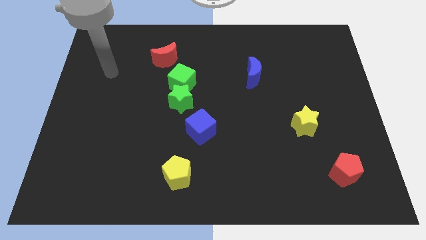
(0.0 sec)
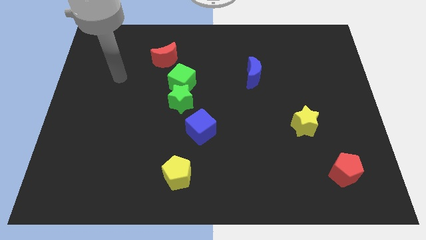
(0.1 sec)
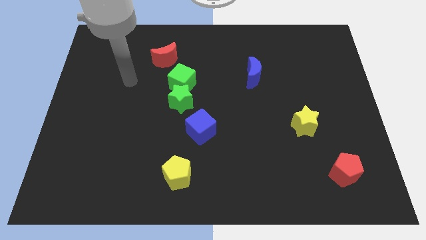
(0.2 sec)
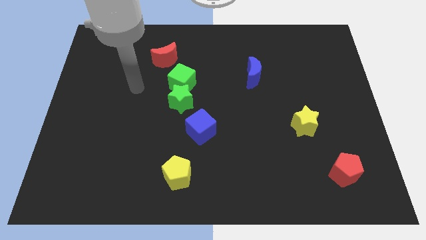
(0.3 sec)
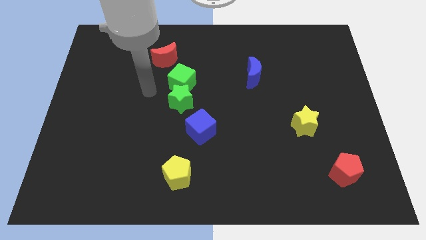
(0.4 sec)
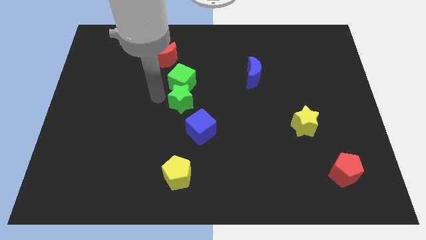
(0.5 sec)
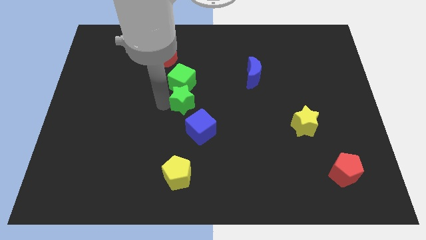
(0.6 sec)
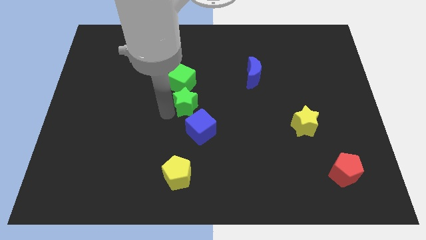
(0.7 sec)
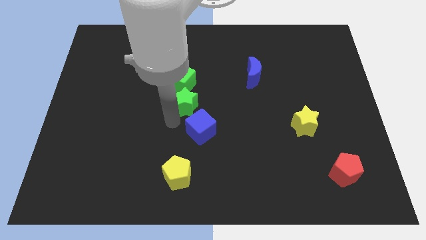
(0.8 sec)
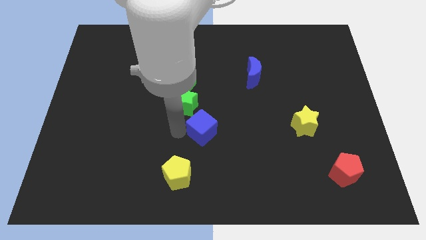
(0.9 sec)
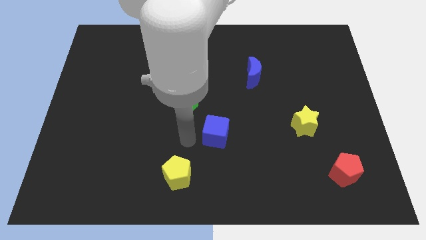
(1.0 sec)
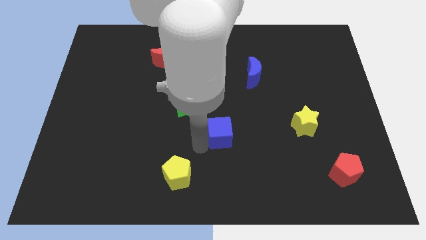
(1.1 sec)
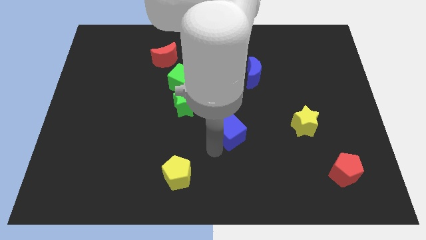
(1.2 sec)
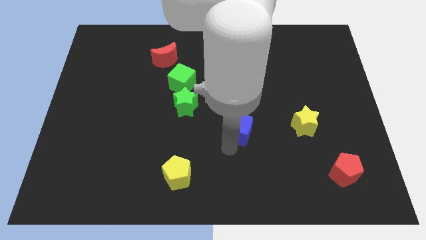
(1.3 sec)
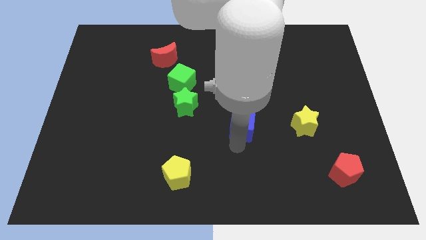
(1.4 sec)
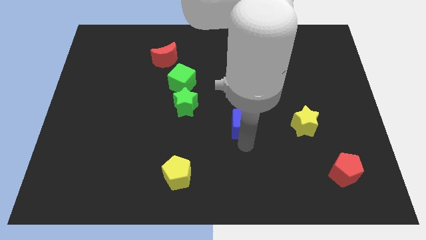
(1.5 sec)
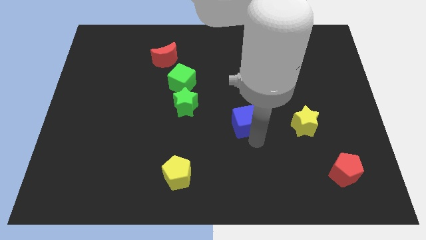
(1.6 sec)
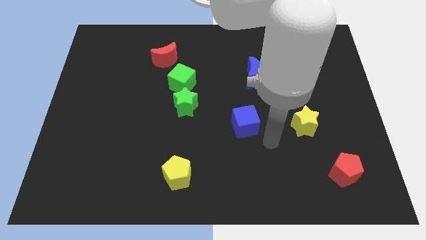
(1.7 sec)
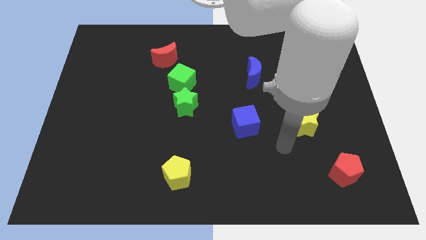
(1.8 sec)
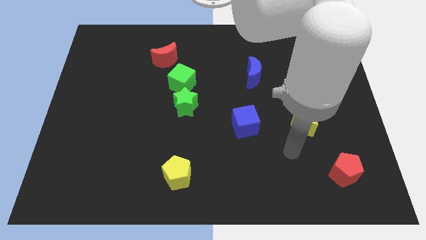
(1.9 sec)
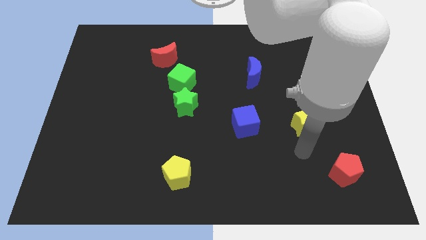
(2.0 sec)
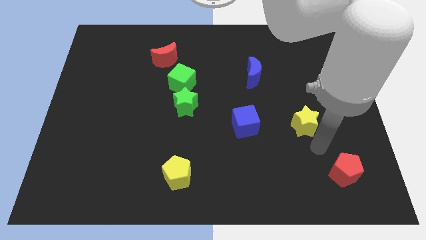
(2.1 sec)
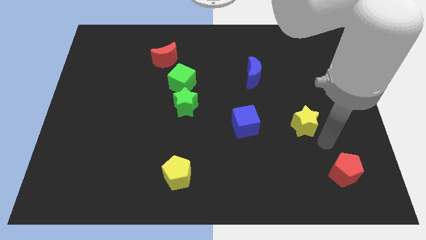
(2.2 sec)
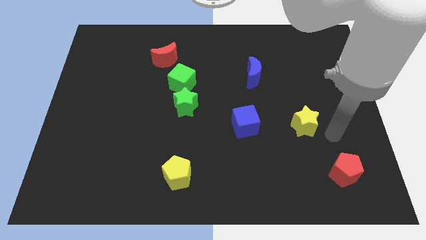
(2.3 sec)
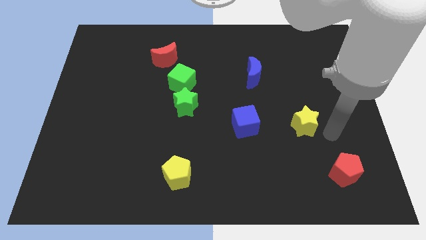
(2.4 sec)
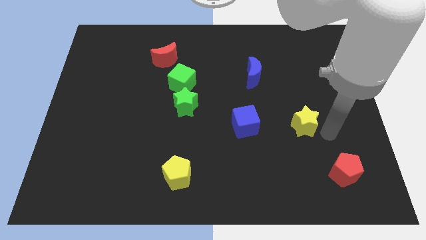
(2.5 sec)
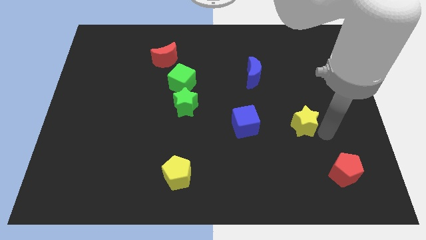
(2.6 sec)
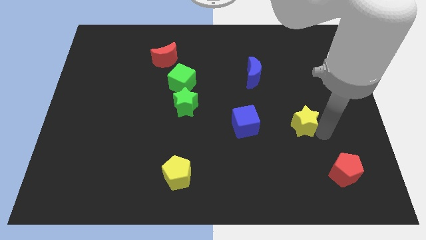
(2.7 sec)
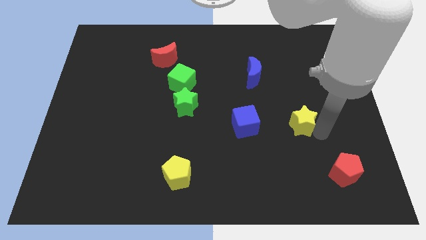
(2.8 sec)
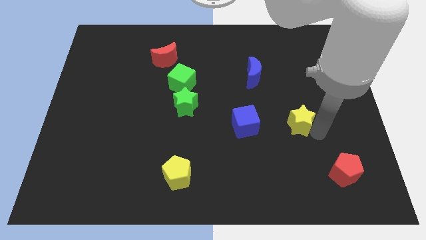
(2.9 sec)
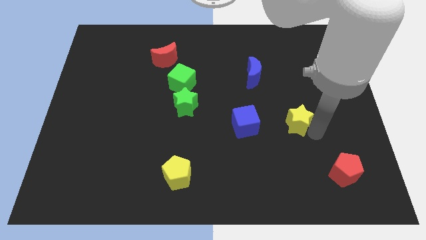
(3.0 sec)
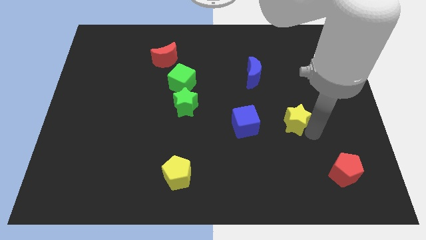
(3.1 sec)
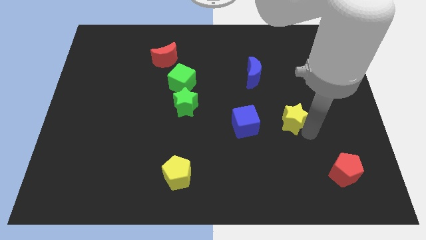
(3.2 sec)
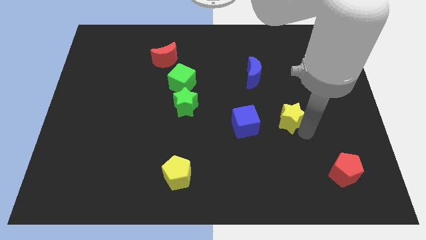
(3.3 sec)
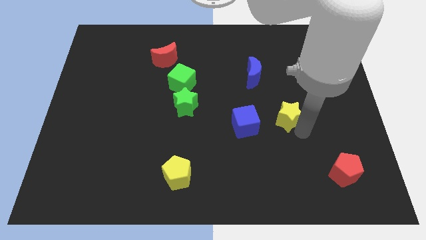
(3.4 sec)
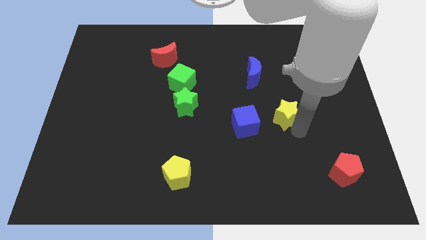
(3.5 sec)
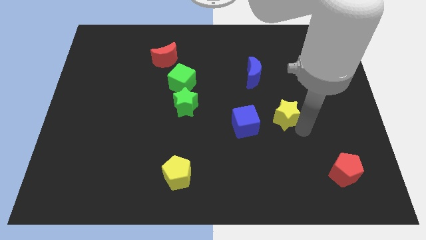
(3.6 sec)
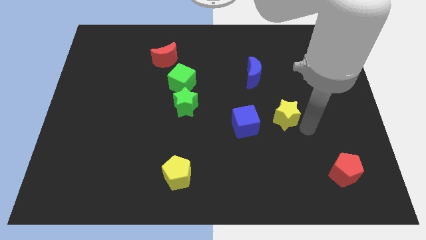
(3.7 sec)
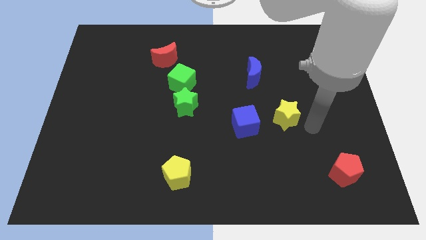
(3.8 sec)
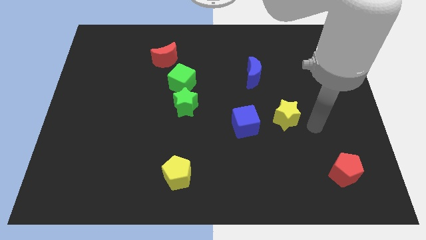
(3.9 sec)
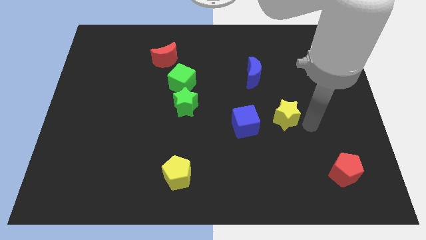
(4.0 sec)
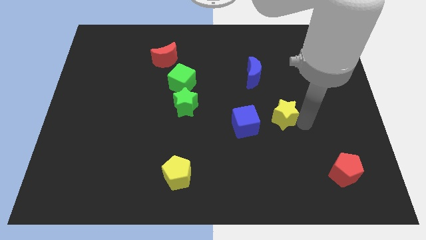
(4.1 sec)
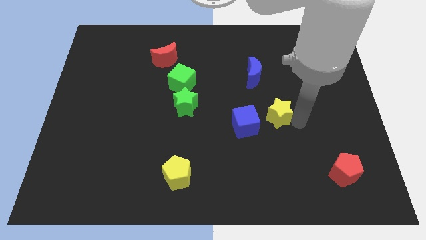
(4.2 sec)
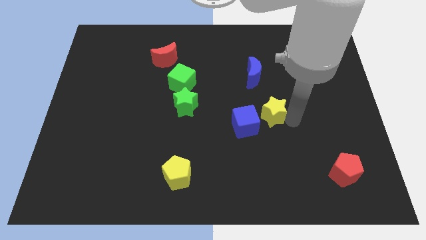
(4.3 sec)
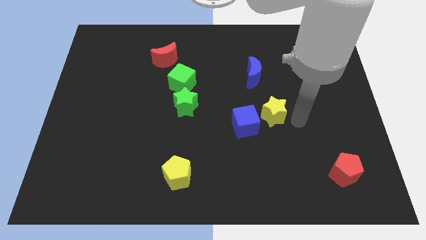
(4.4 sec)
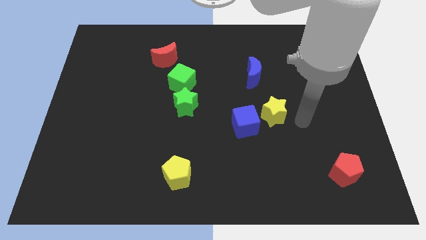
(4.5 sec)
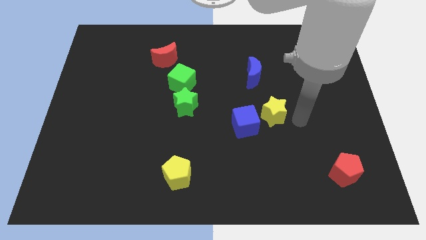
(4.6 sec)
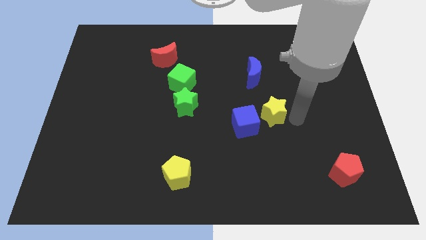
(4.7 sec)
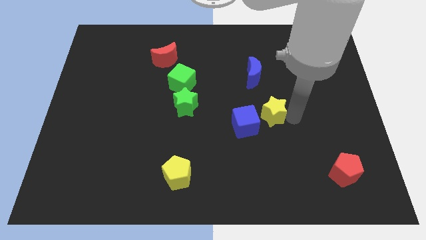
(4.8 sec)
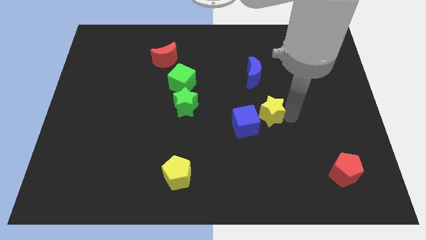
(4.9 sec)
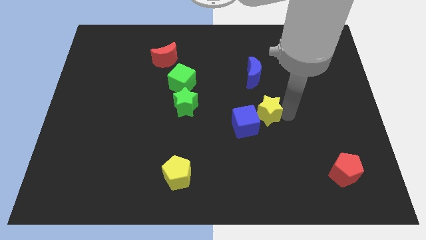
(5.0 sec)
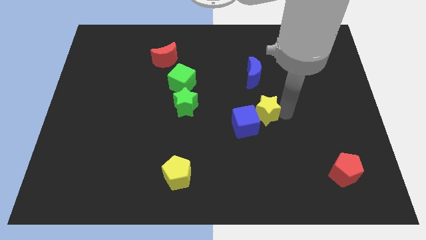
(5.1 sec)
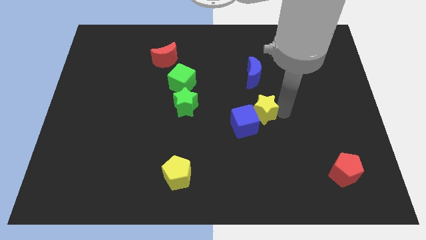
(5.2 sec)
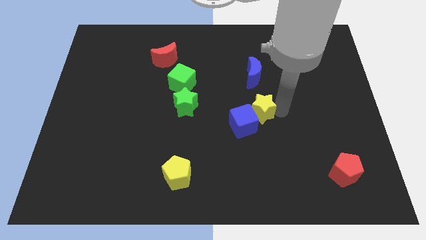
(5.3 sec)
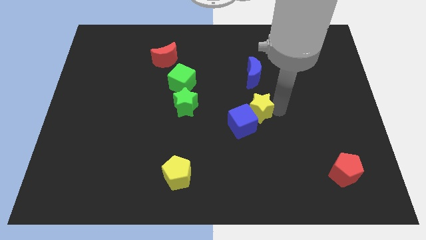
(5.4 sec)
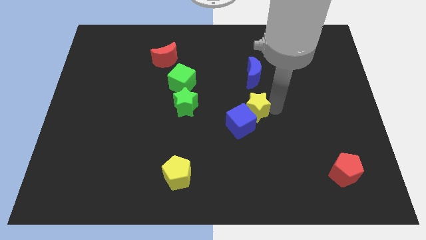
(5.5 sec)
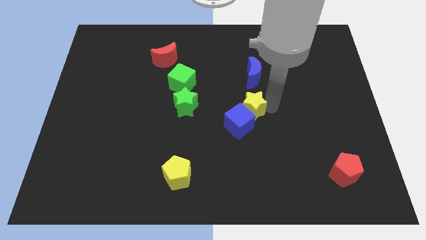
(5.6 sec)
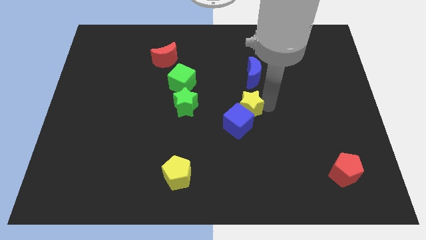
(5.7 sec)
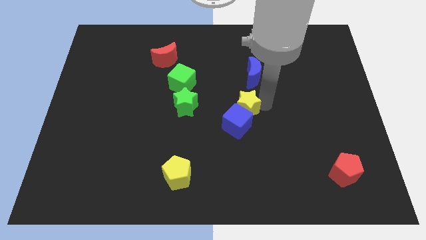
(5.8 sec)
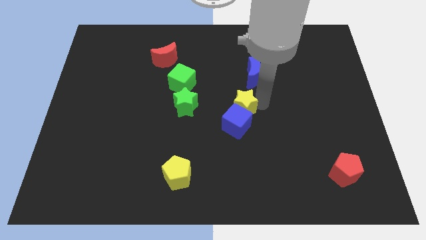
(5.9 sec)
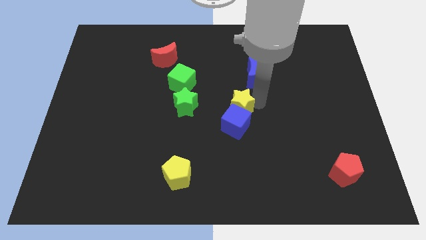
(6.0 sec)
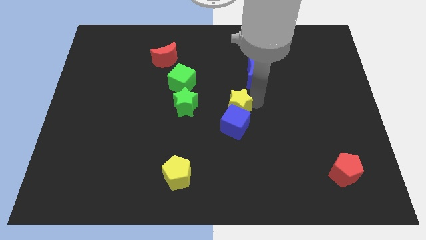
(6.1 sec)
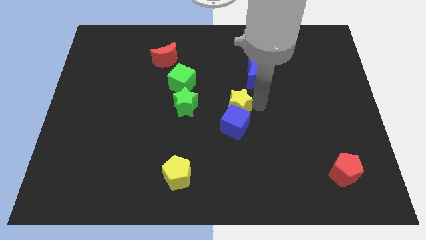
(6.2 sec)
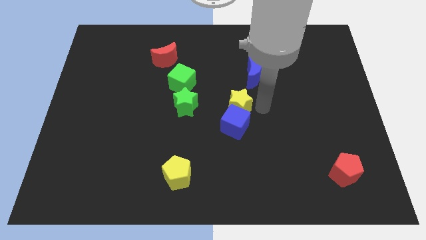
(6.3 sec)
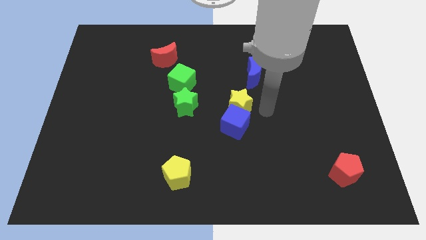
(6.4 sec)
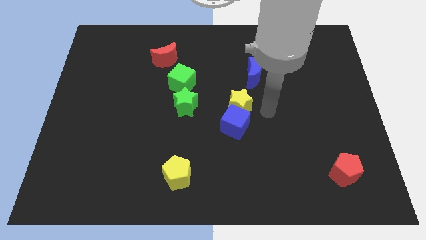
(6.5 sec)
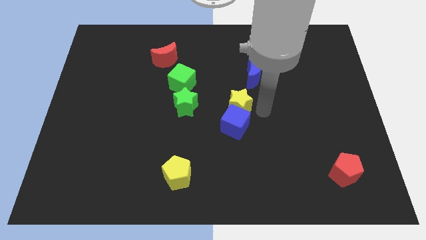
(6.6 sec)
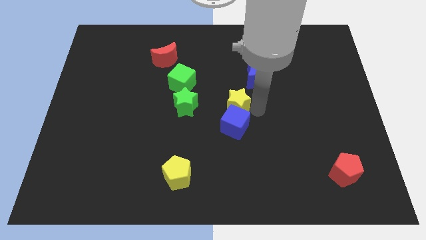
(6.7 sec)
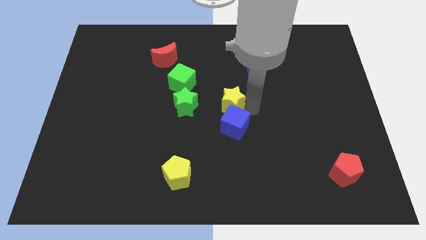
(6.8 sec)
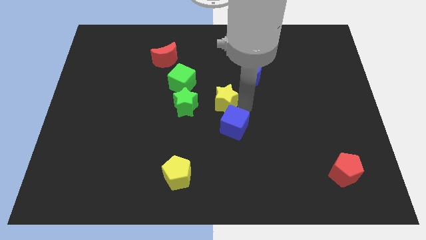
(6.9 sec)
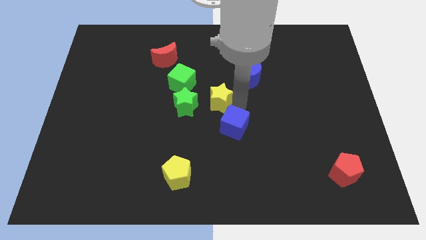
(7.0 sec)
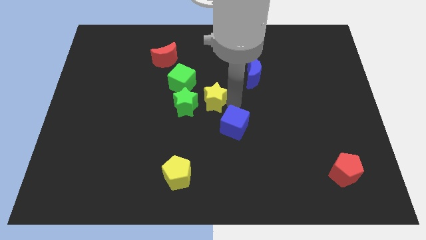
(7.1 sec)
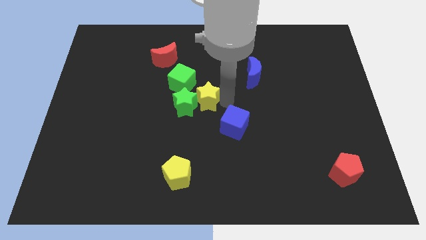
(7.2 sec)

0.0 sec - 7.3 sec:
push the yellow star next to the green star
